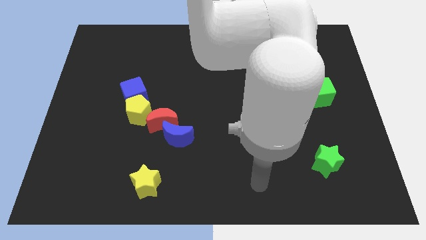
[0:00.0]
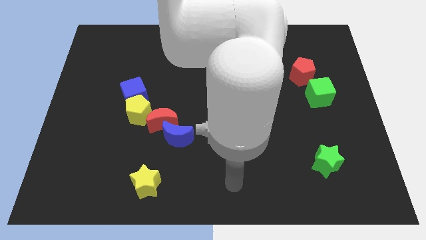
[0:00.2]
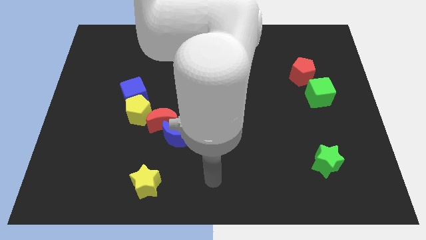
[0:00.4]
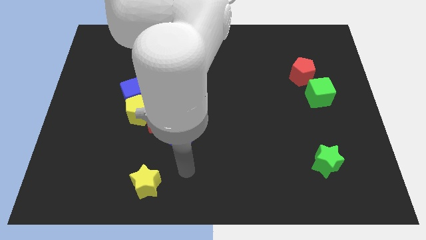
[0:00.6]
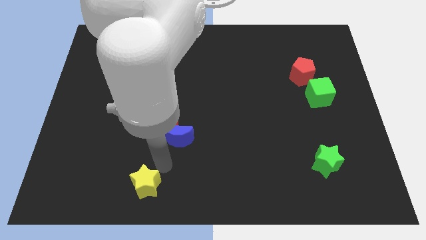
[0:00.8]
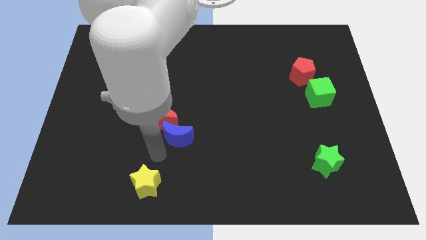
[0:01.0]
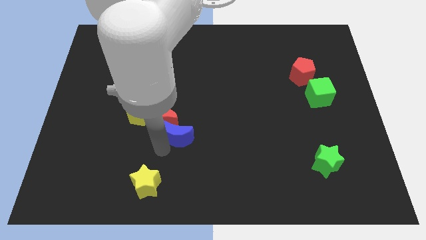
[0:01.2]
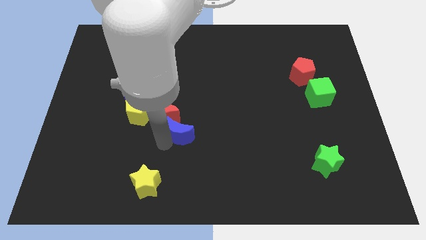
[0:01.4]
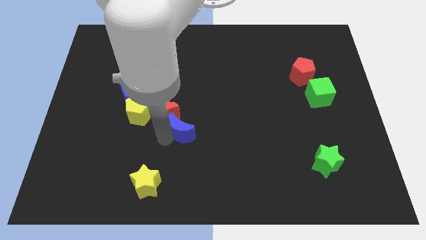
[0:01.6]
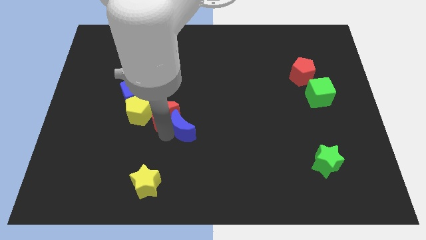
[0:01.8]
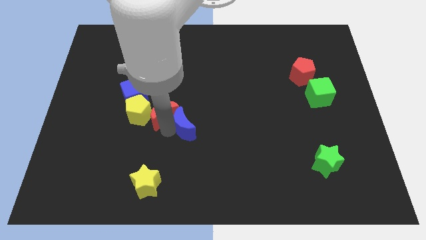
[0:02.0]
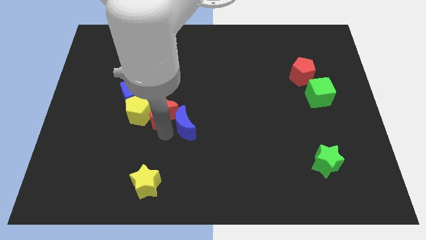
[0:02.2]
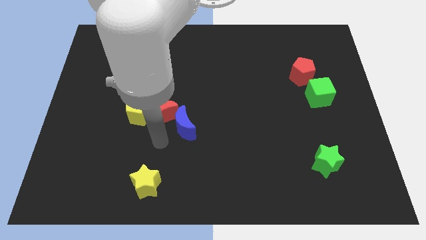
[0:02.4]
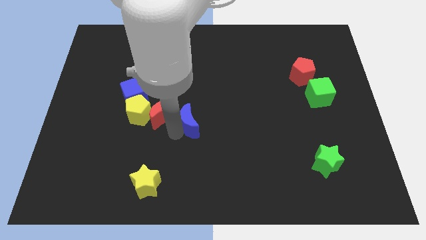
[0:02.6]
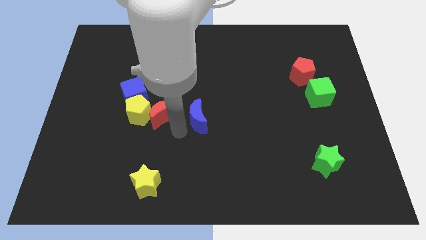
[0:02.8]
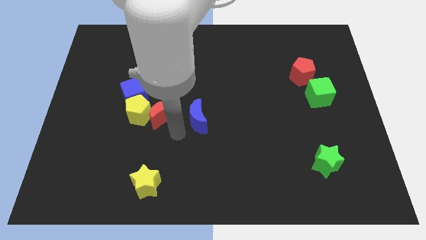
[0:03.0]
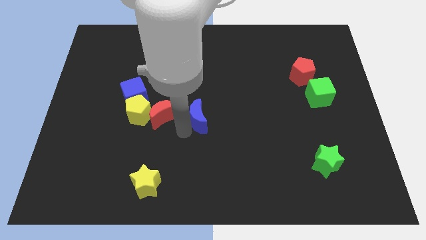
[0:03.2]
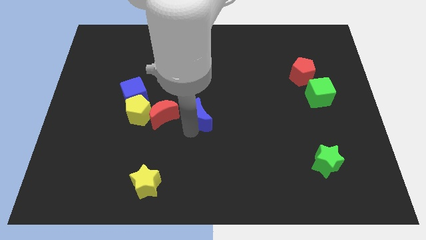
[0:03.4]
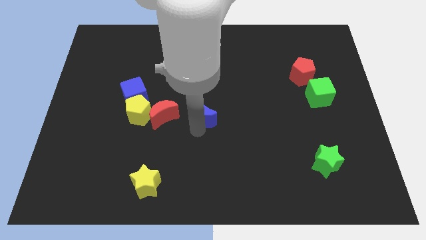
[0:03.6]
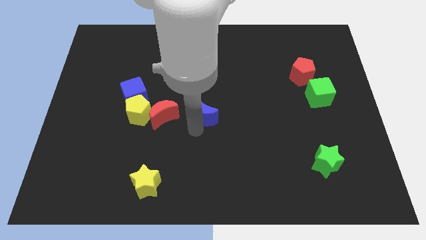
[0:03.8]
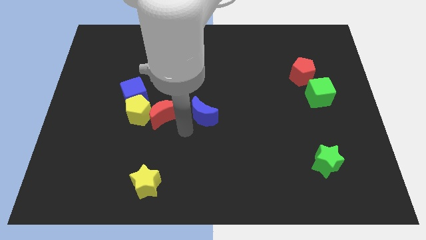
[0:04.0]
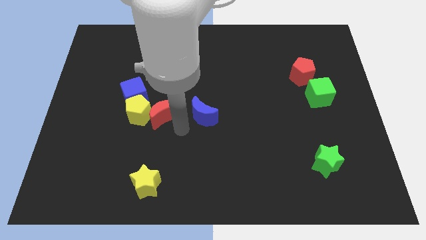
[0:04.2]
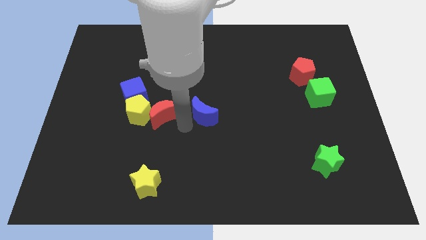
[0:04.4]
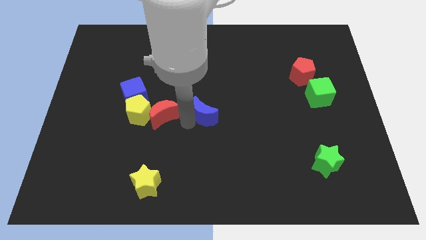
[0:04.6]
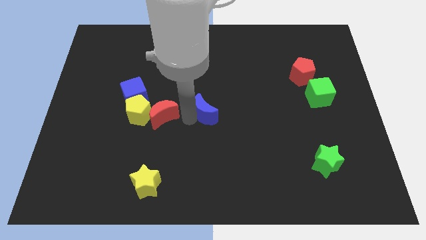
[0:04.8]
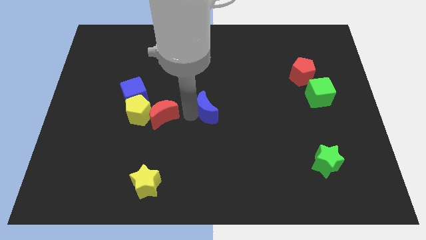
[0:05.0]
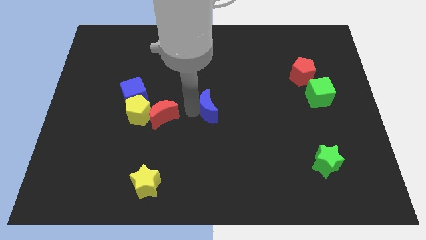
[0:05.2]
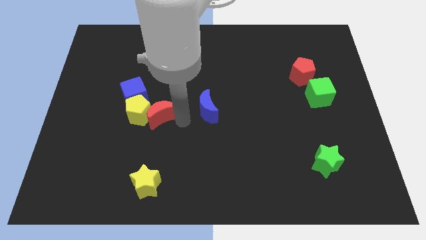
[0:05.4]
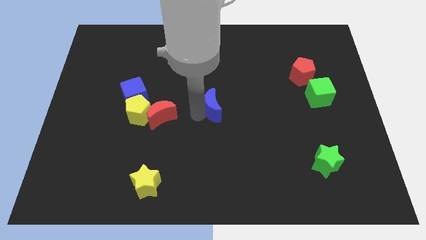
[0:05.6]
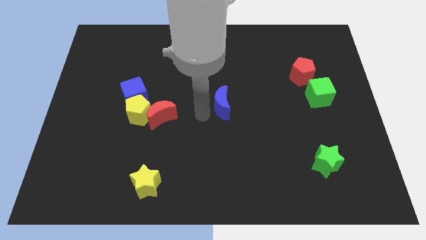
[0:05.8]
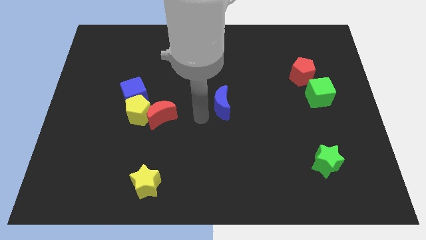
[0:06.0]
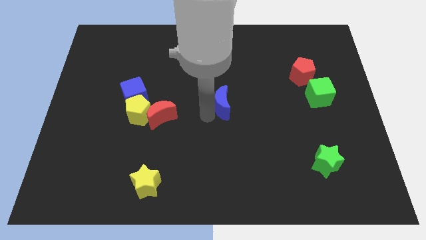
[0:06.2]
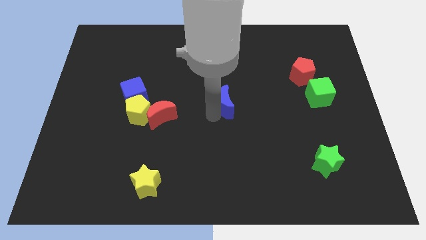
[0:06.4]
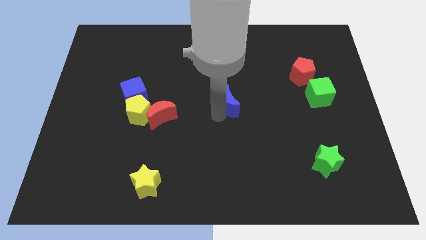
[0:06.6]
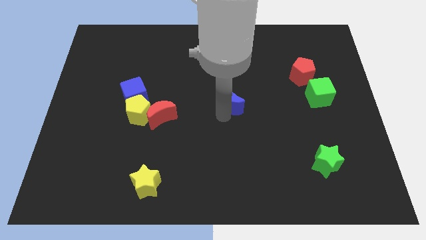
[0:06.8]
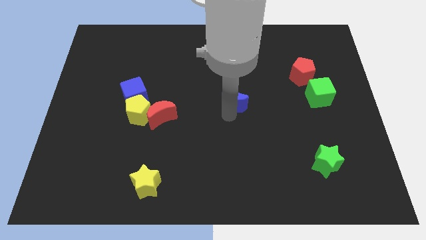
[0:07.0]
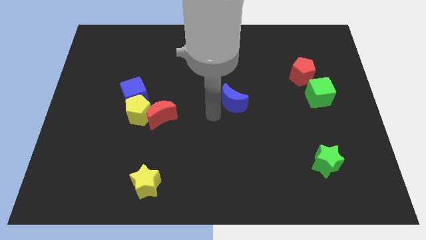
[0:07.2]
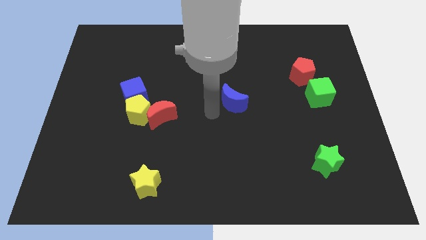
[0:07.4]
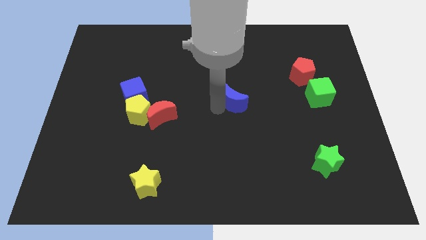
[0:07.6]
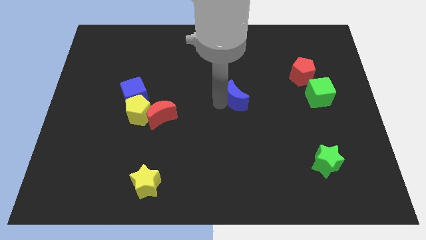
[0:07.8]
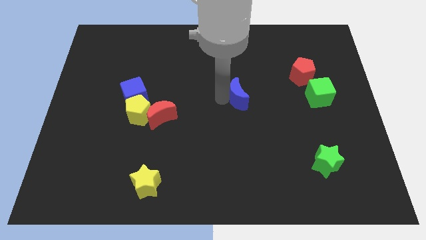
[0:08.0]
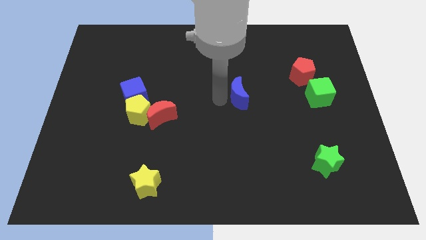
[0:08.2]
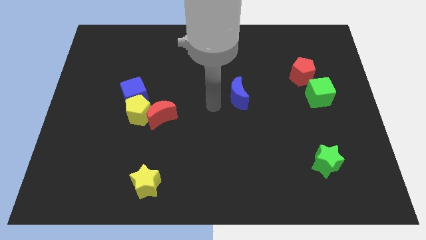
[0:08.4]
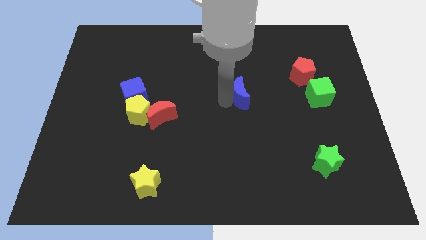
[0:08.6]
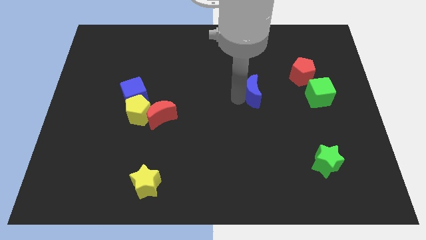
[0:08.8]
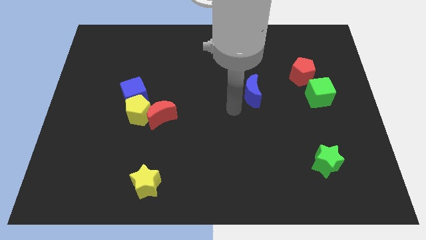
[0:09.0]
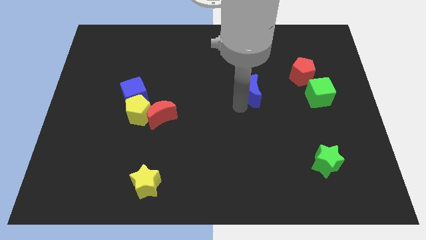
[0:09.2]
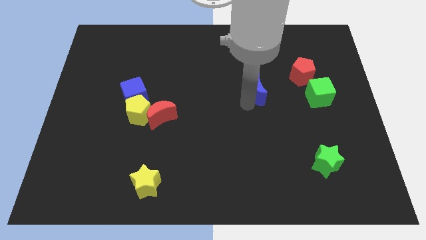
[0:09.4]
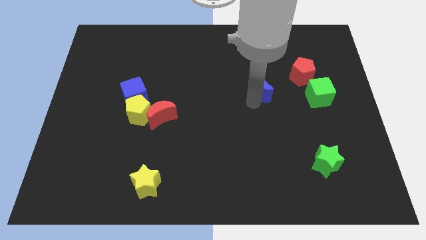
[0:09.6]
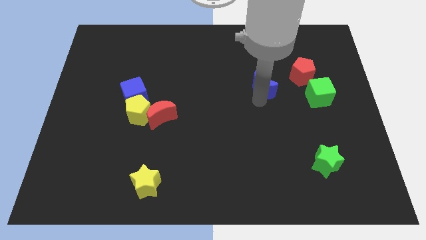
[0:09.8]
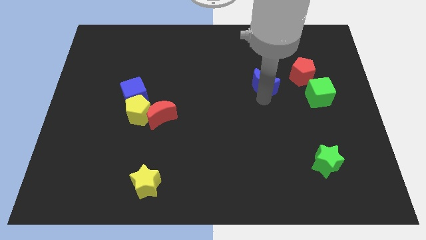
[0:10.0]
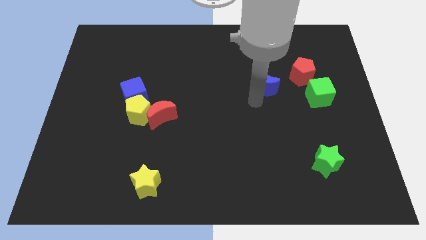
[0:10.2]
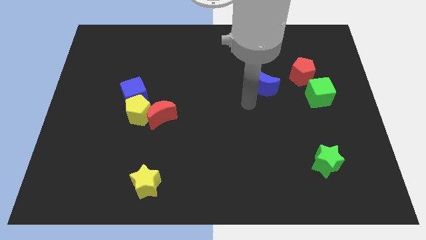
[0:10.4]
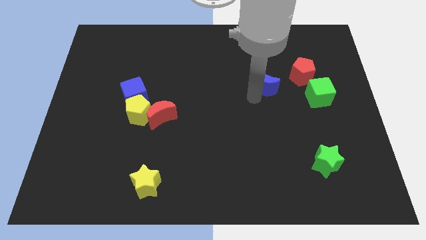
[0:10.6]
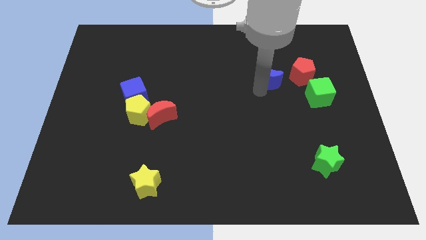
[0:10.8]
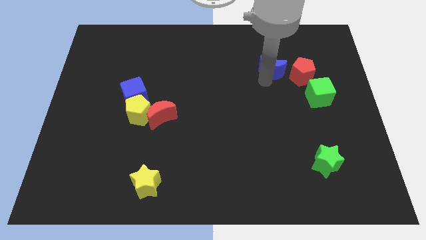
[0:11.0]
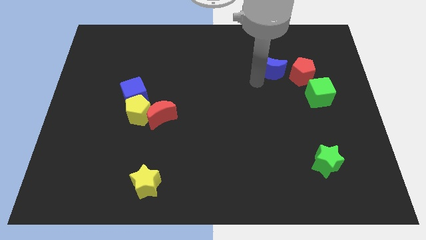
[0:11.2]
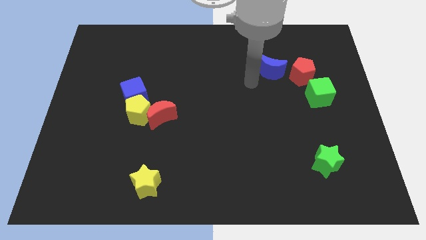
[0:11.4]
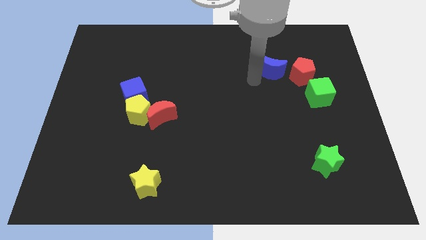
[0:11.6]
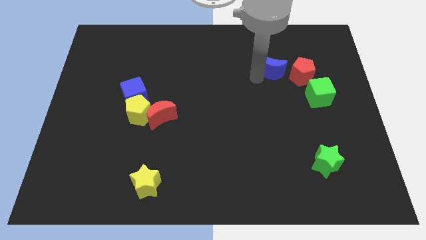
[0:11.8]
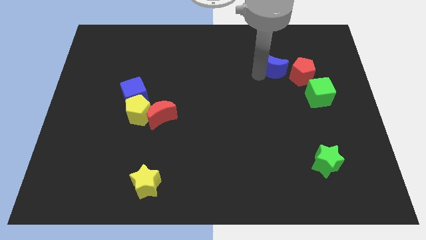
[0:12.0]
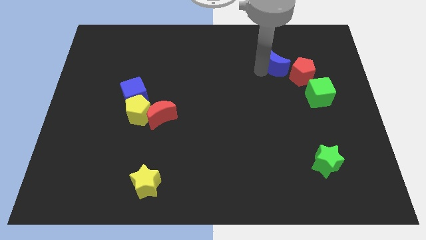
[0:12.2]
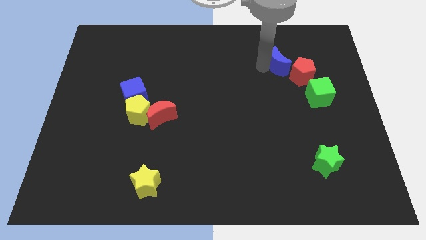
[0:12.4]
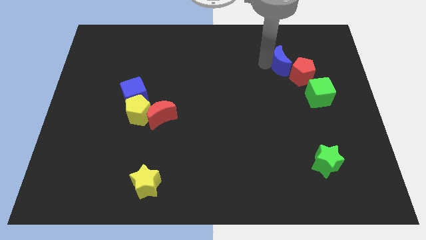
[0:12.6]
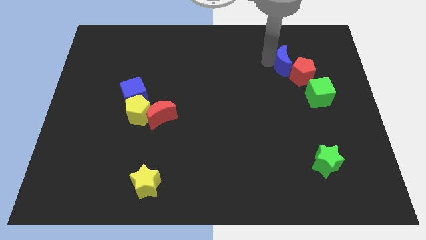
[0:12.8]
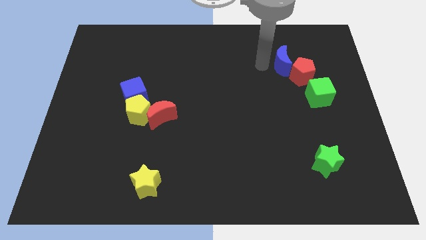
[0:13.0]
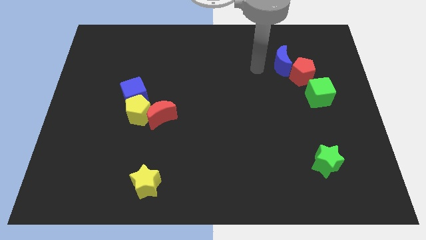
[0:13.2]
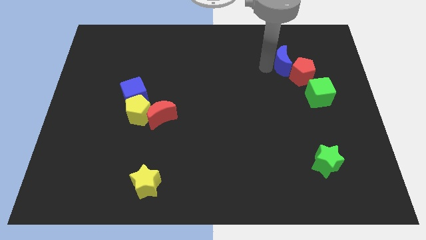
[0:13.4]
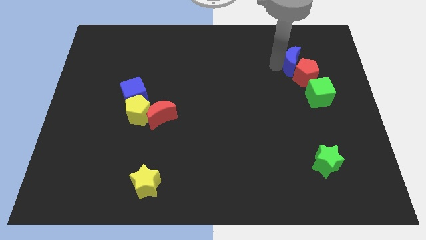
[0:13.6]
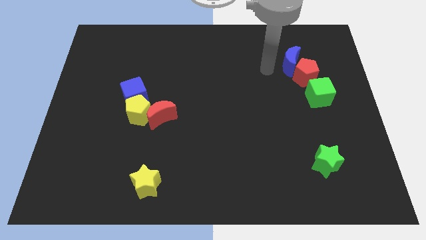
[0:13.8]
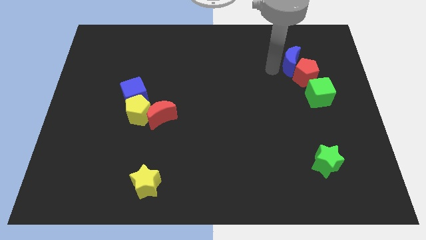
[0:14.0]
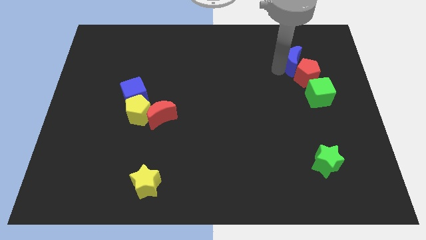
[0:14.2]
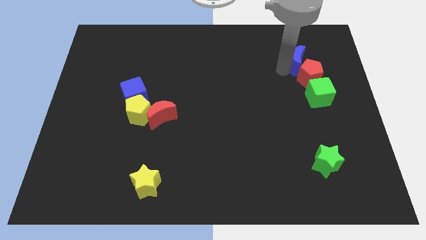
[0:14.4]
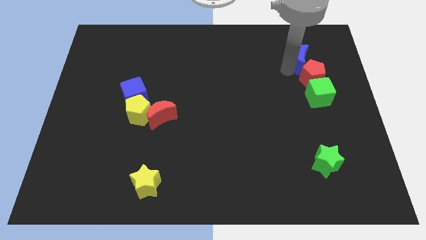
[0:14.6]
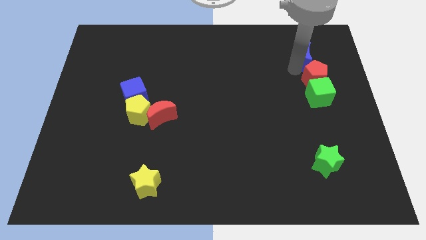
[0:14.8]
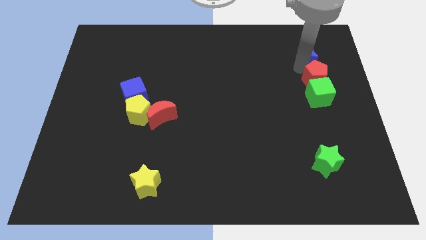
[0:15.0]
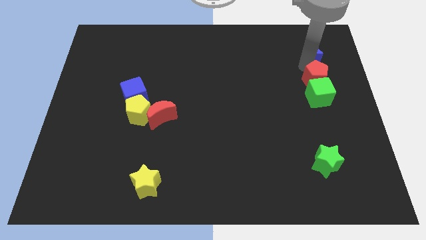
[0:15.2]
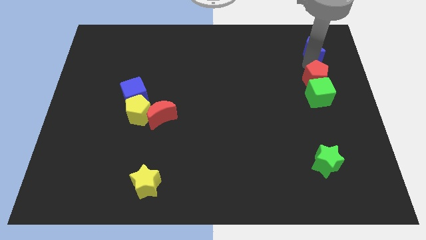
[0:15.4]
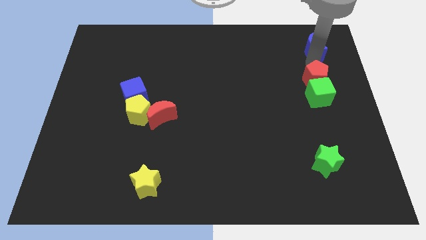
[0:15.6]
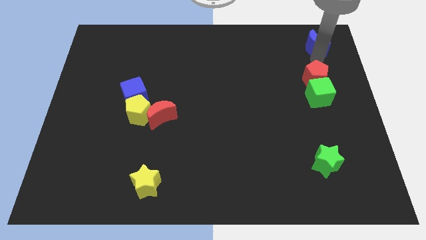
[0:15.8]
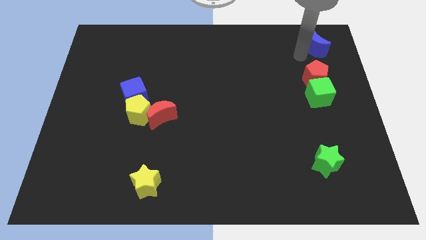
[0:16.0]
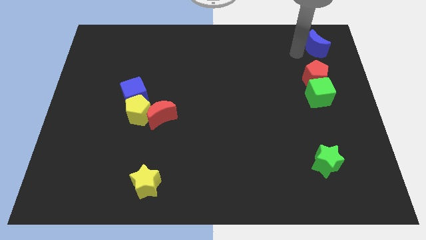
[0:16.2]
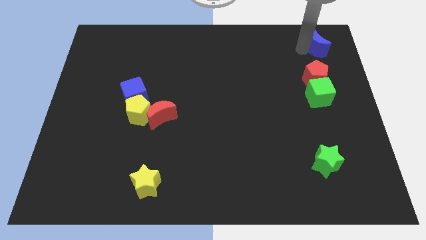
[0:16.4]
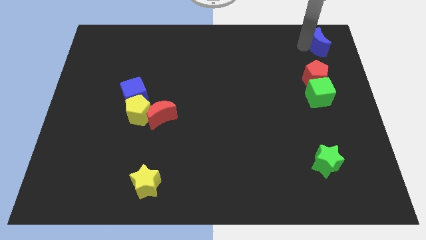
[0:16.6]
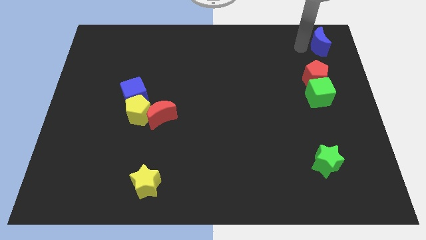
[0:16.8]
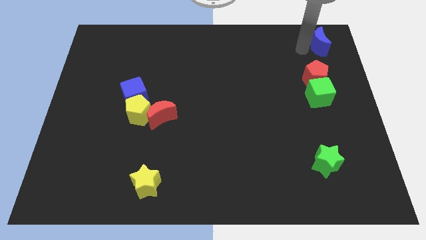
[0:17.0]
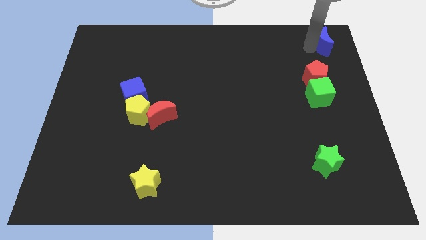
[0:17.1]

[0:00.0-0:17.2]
push the blue moon to the top right corner
